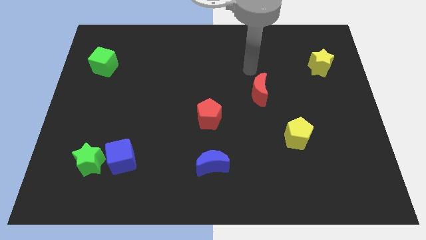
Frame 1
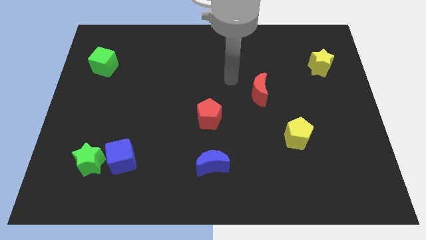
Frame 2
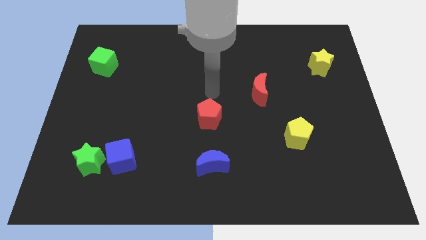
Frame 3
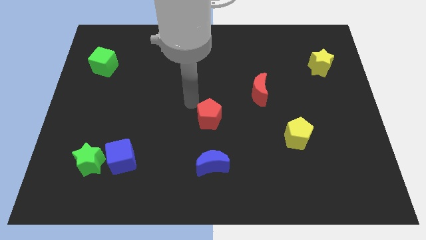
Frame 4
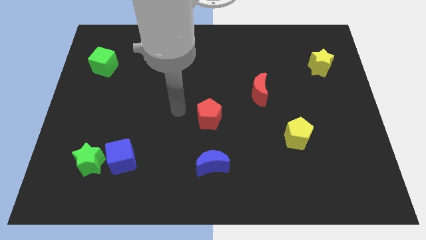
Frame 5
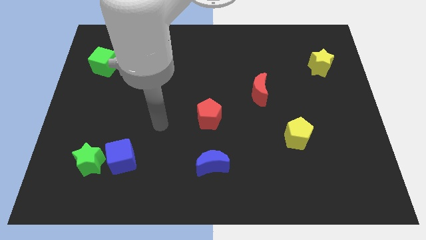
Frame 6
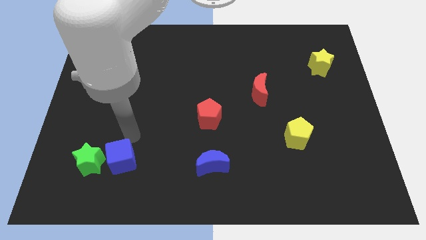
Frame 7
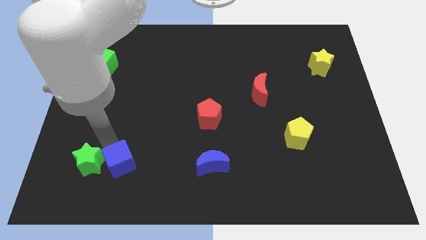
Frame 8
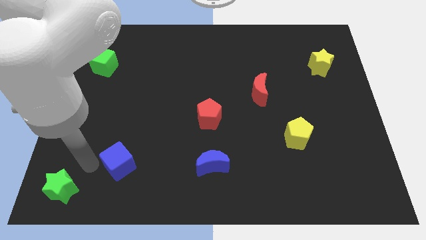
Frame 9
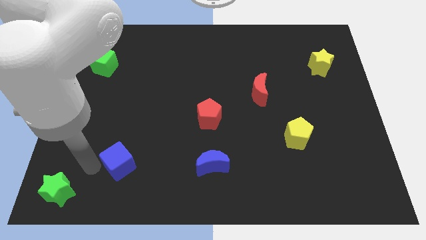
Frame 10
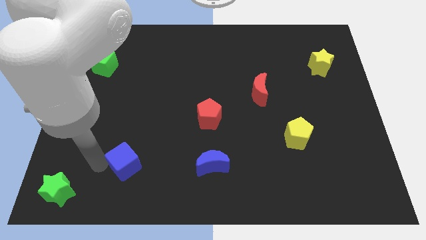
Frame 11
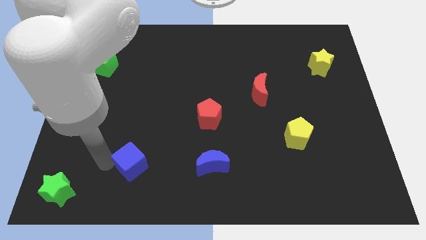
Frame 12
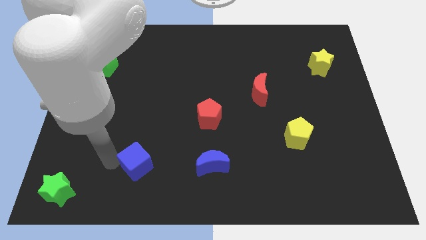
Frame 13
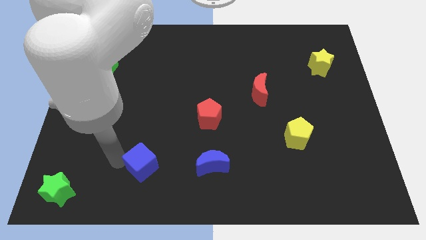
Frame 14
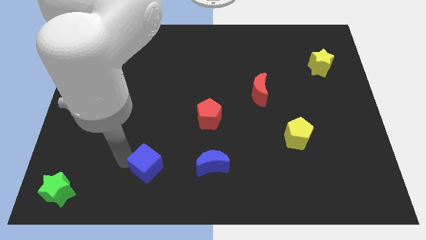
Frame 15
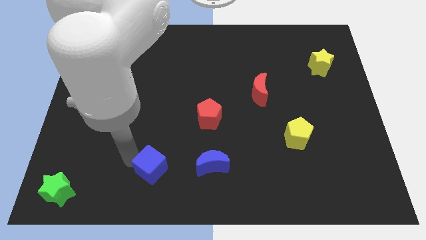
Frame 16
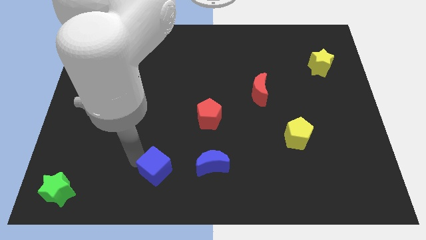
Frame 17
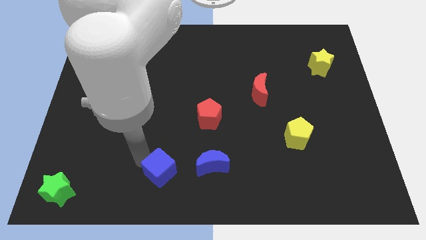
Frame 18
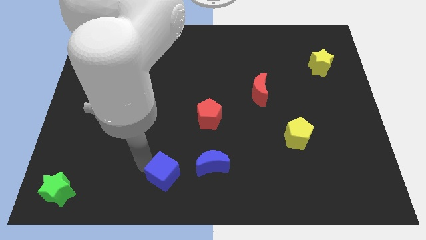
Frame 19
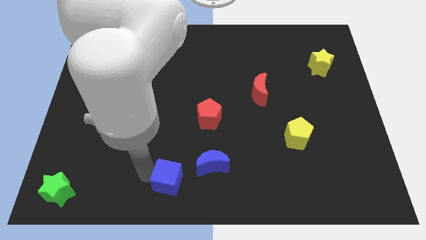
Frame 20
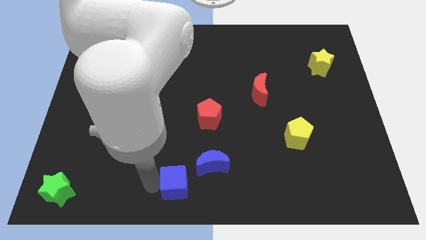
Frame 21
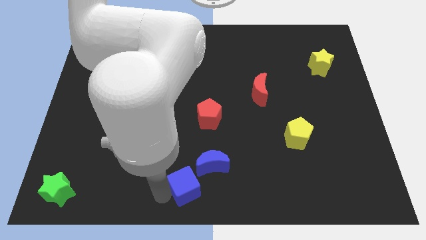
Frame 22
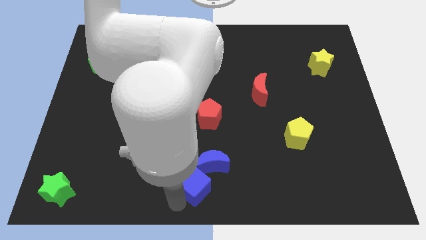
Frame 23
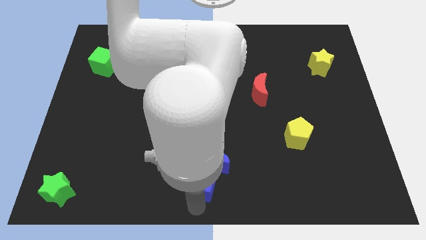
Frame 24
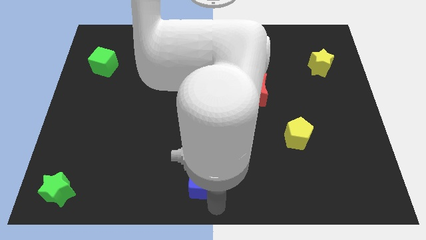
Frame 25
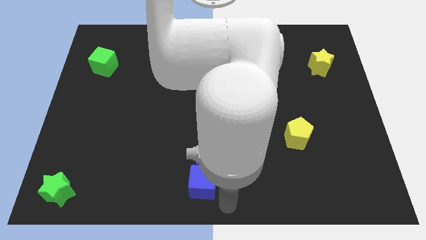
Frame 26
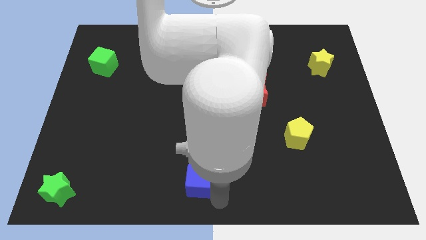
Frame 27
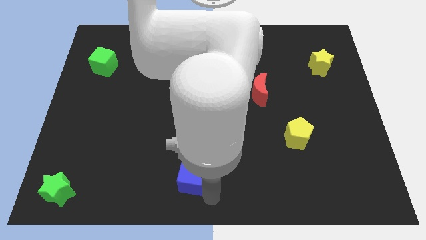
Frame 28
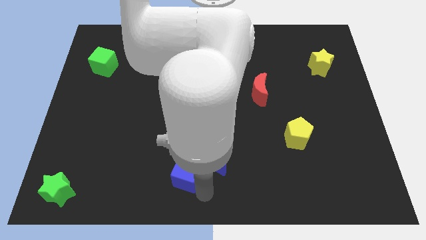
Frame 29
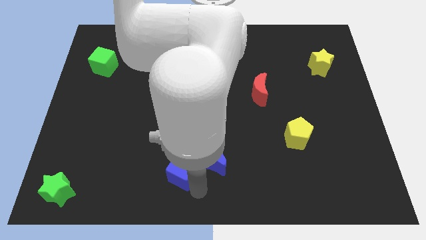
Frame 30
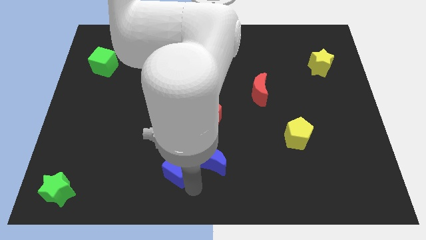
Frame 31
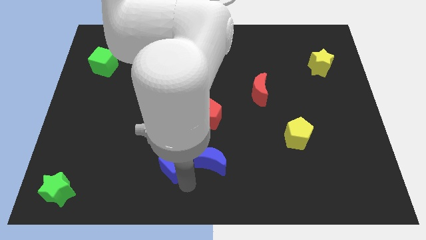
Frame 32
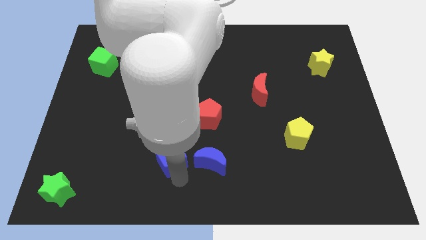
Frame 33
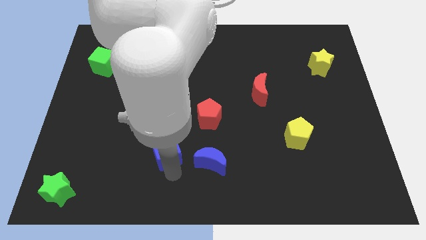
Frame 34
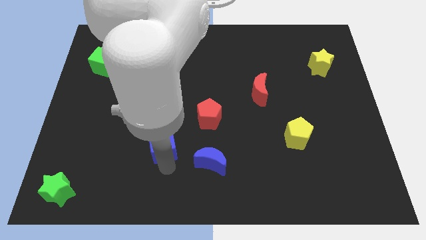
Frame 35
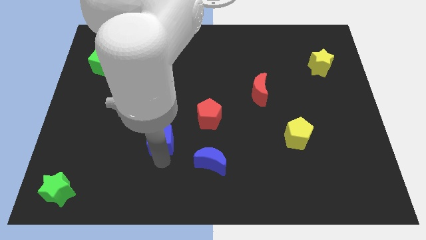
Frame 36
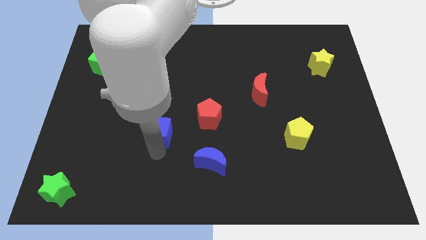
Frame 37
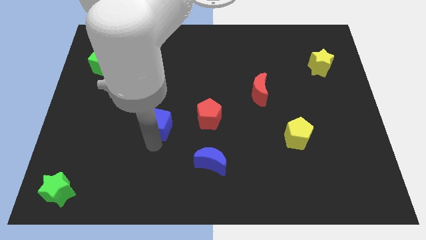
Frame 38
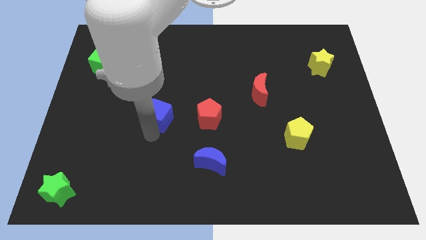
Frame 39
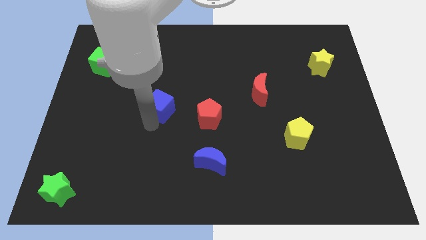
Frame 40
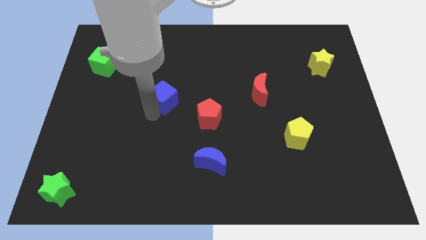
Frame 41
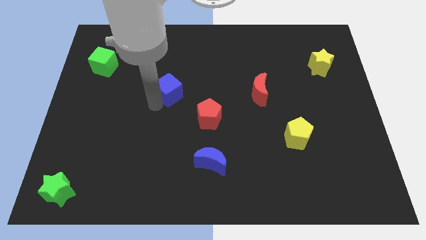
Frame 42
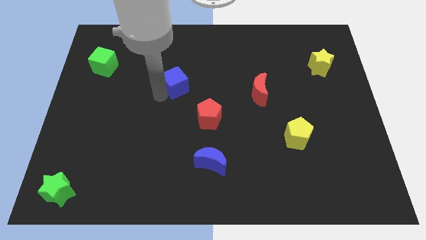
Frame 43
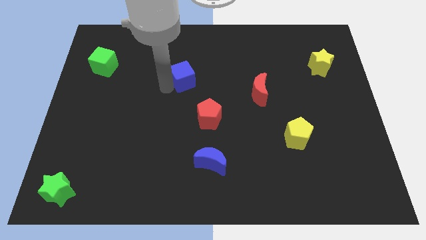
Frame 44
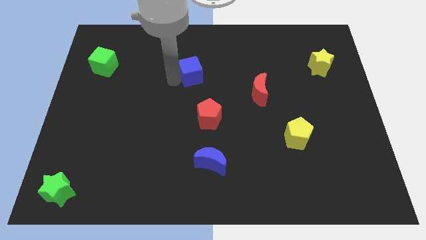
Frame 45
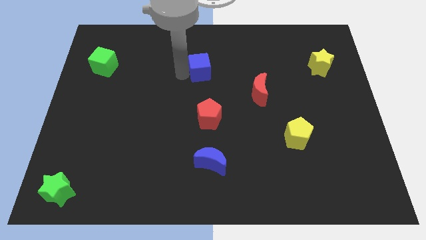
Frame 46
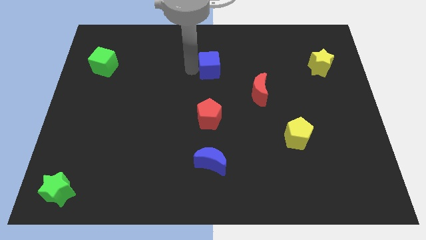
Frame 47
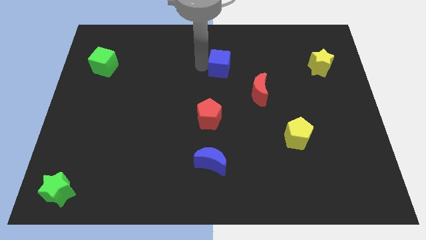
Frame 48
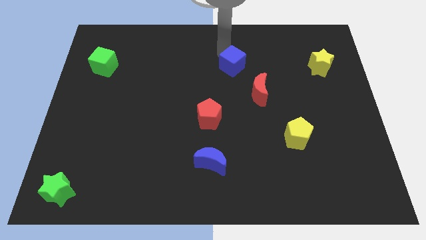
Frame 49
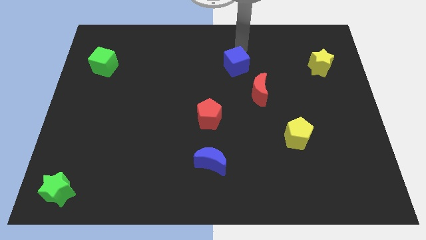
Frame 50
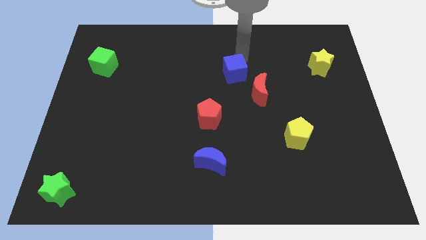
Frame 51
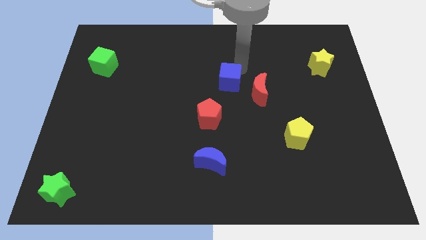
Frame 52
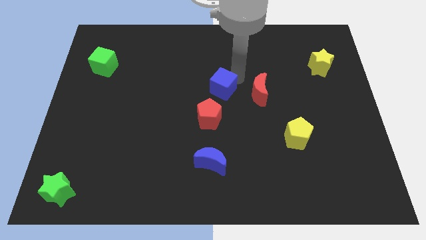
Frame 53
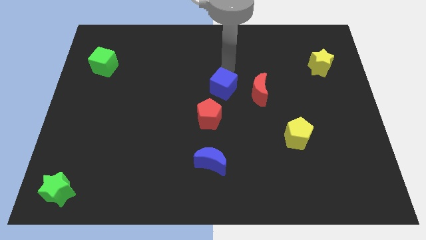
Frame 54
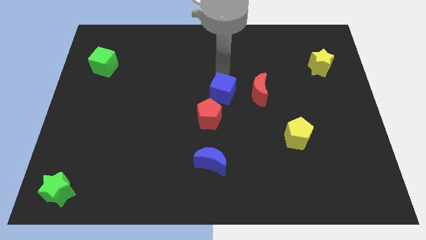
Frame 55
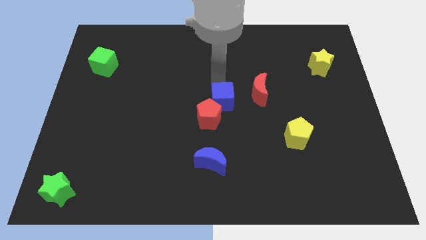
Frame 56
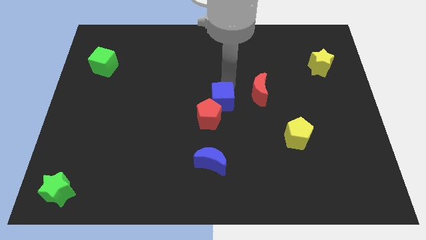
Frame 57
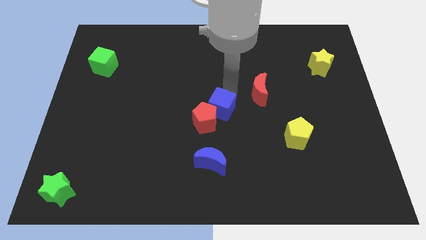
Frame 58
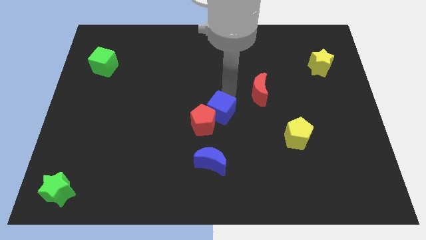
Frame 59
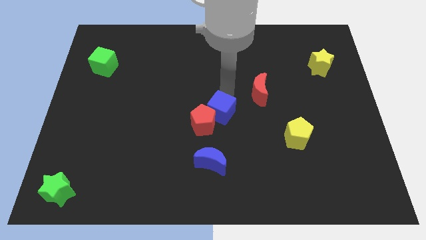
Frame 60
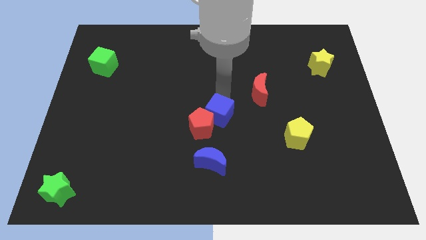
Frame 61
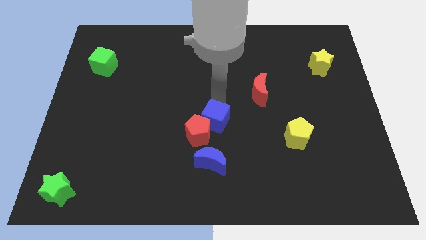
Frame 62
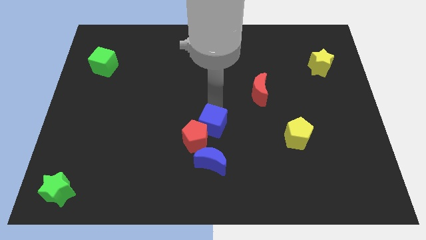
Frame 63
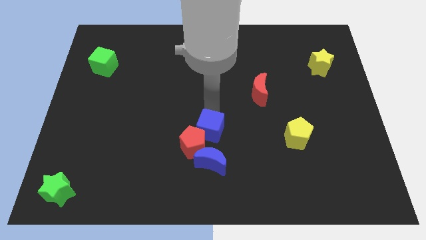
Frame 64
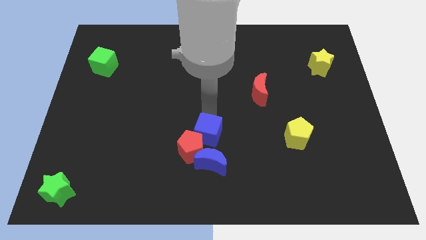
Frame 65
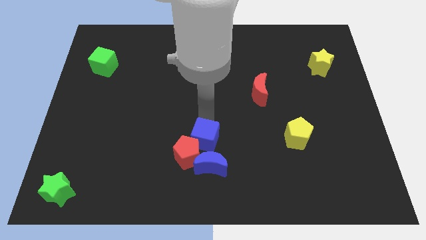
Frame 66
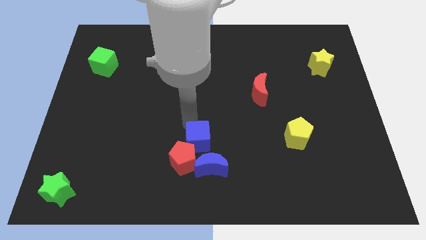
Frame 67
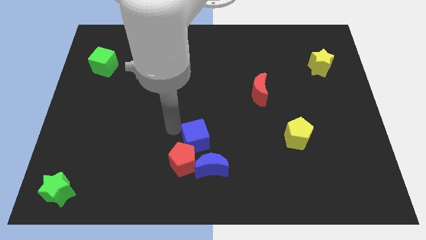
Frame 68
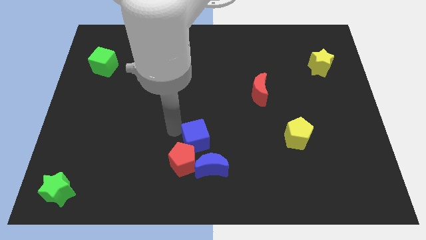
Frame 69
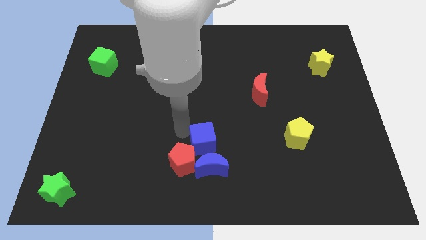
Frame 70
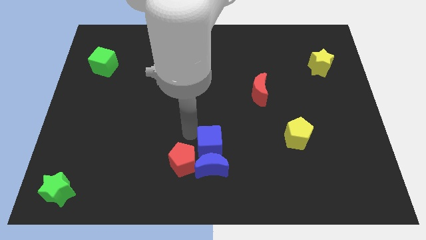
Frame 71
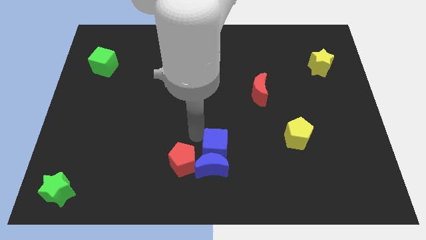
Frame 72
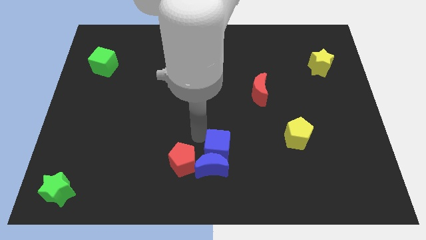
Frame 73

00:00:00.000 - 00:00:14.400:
push the blue cube right

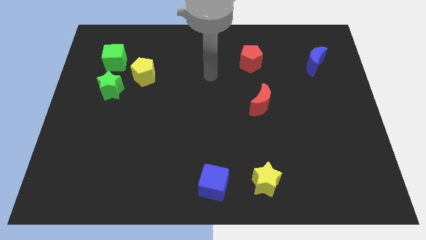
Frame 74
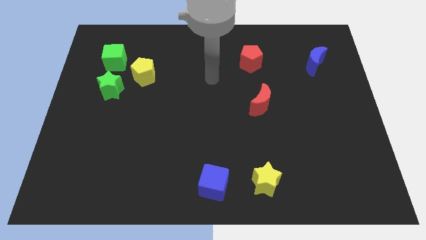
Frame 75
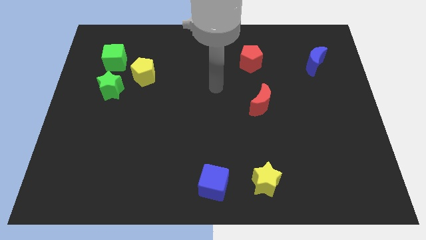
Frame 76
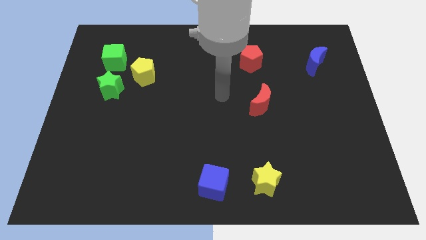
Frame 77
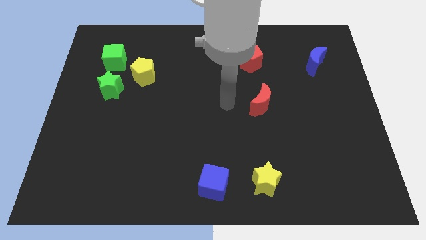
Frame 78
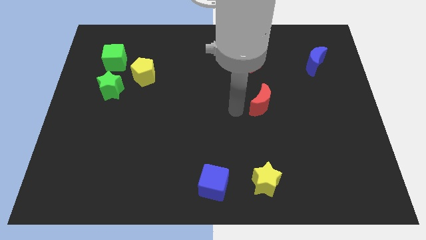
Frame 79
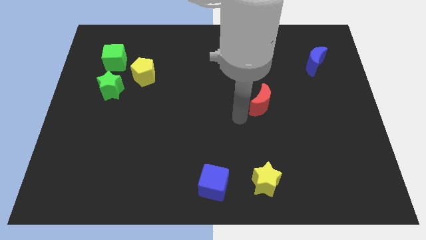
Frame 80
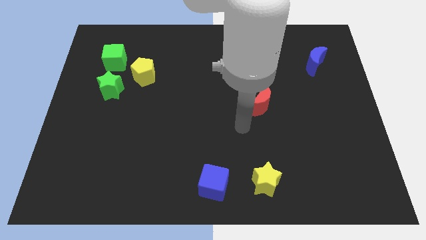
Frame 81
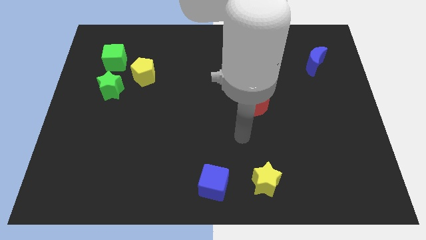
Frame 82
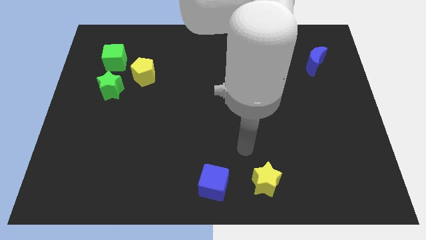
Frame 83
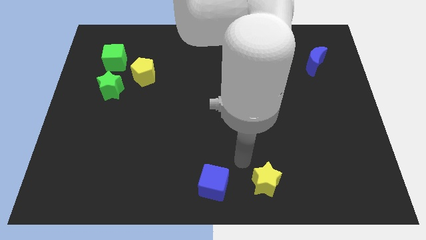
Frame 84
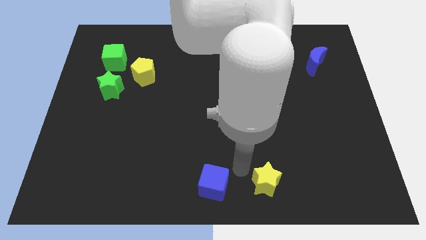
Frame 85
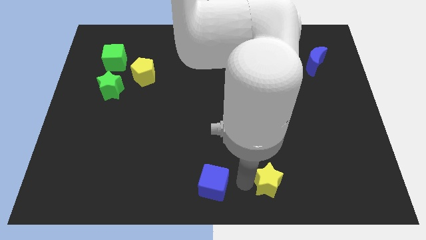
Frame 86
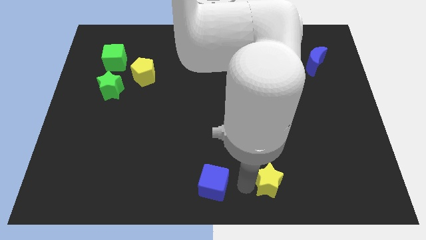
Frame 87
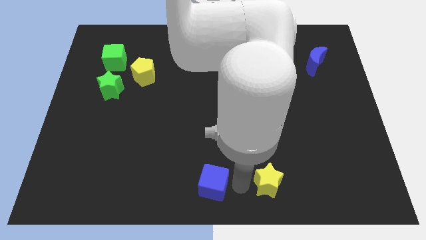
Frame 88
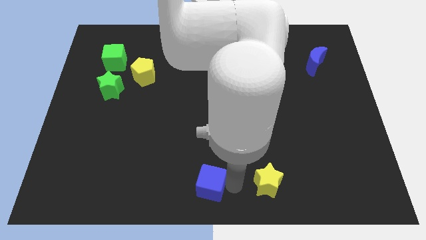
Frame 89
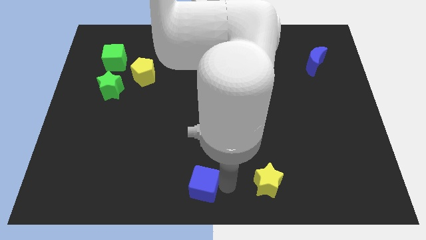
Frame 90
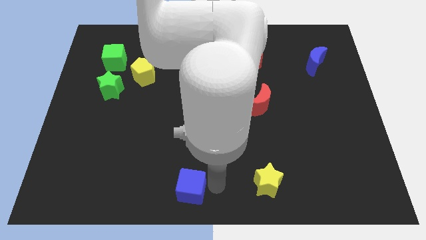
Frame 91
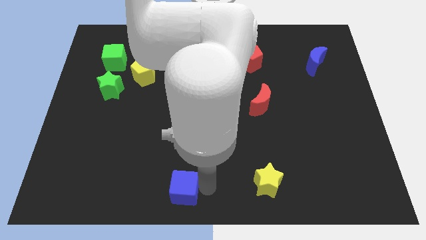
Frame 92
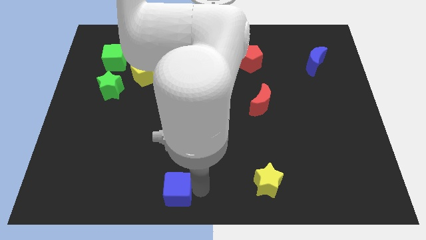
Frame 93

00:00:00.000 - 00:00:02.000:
slide the blue cube a little bit to the left
